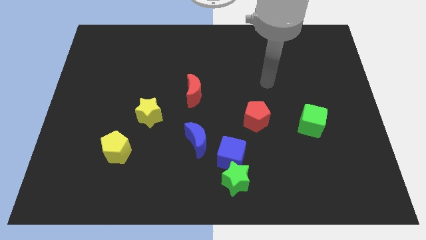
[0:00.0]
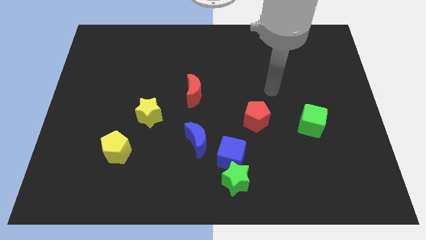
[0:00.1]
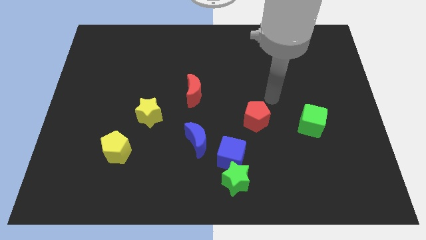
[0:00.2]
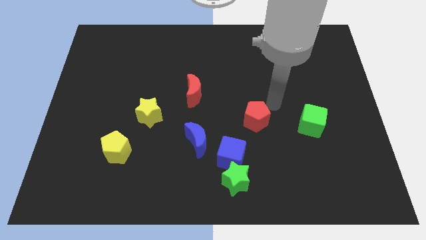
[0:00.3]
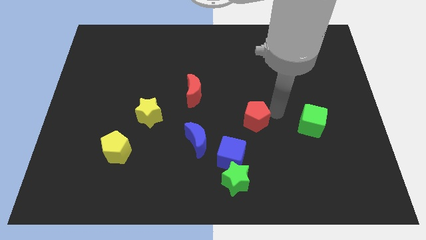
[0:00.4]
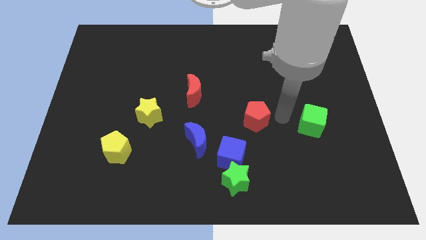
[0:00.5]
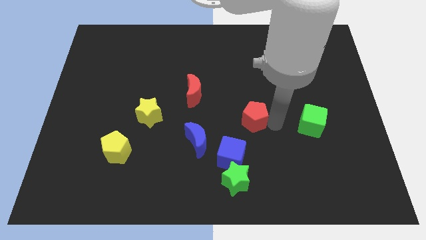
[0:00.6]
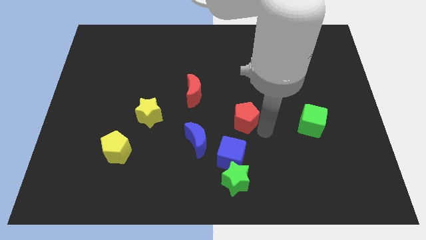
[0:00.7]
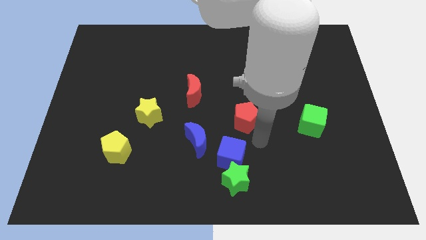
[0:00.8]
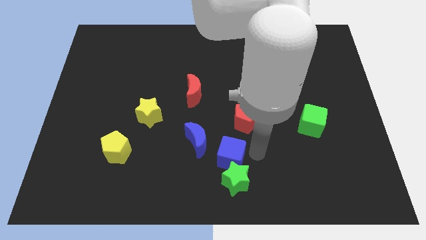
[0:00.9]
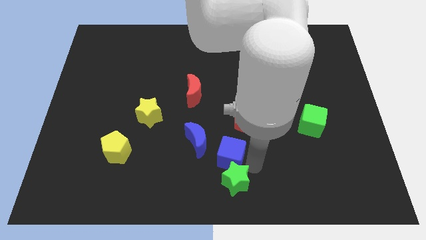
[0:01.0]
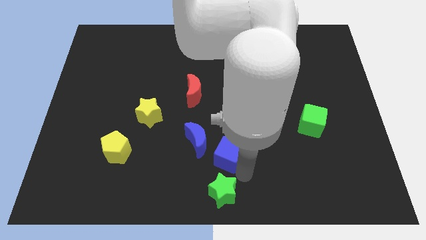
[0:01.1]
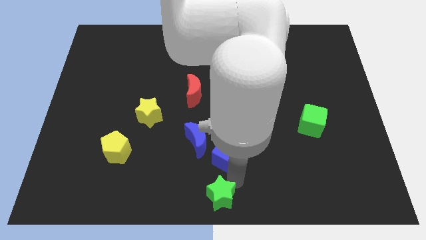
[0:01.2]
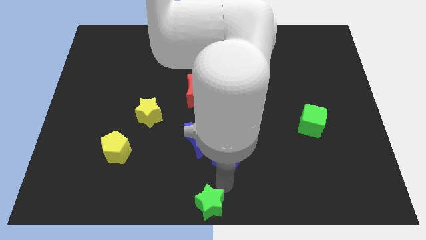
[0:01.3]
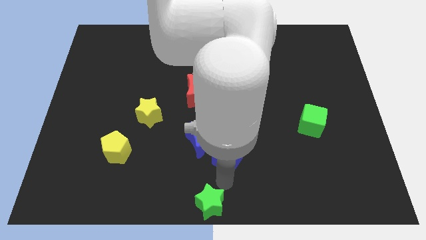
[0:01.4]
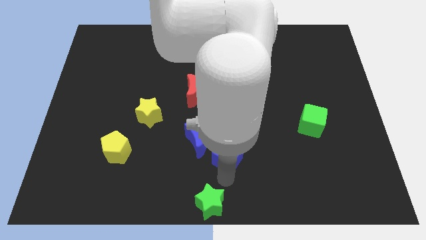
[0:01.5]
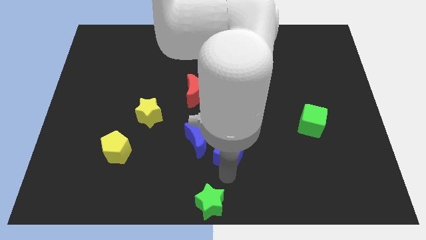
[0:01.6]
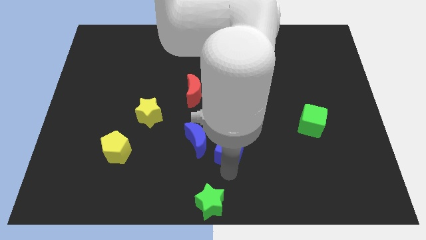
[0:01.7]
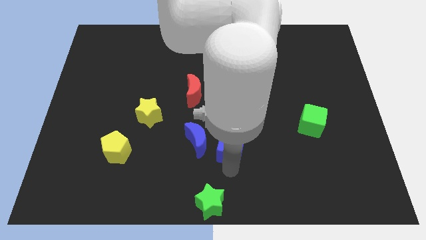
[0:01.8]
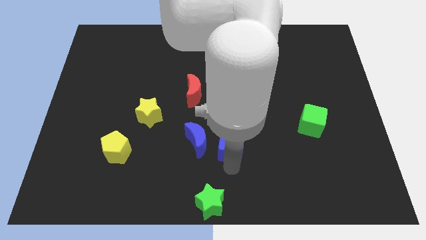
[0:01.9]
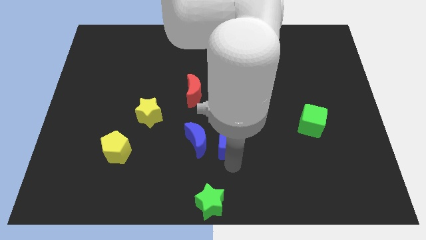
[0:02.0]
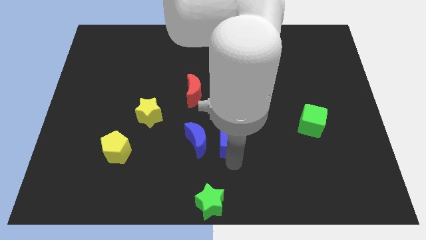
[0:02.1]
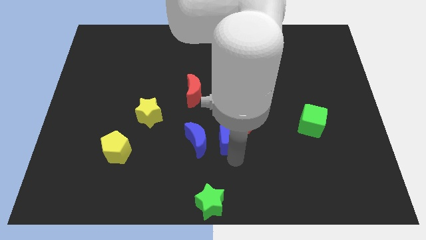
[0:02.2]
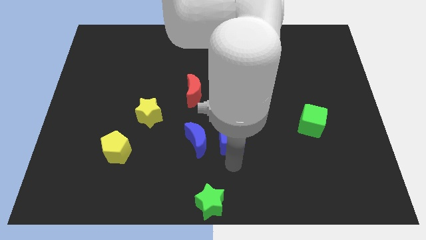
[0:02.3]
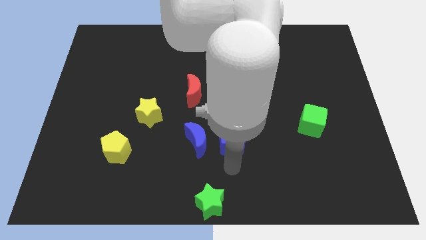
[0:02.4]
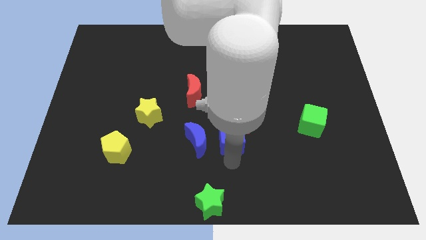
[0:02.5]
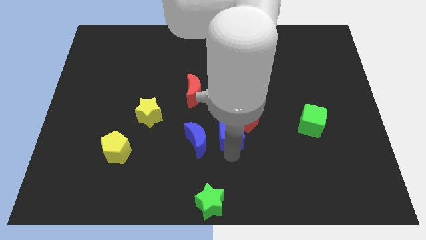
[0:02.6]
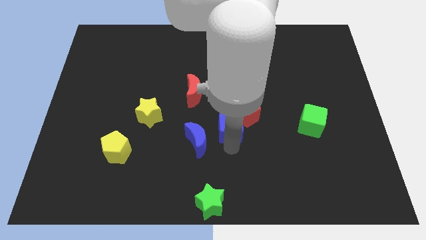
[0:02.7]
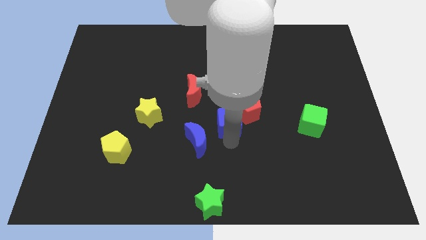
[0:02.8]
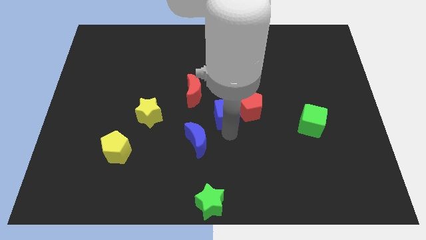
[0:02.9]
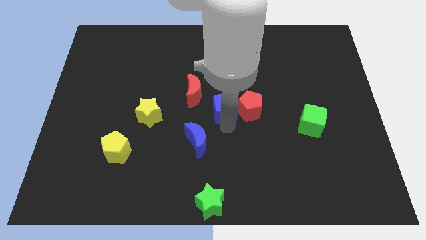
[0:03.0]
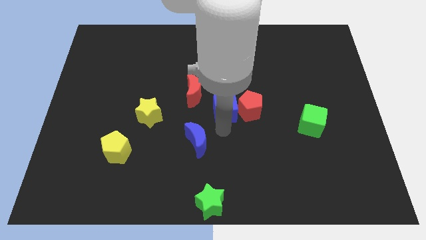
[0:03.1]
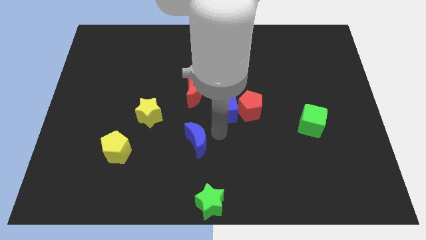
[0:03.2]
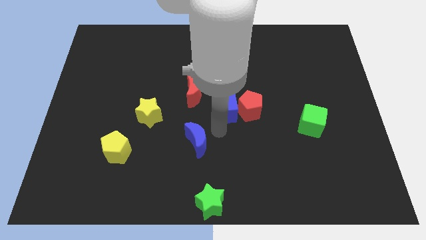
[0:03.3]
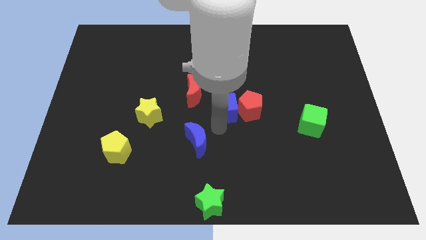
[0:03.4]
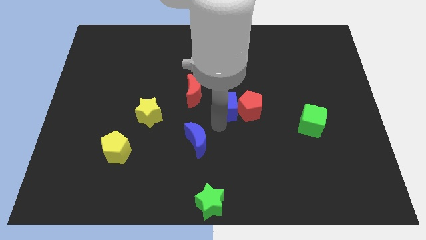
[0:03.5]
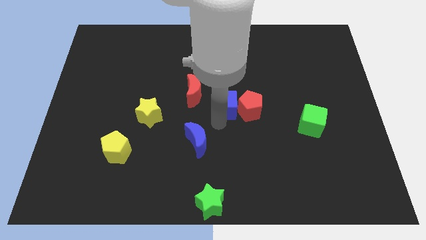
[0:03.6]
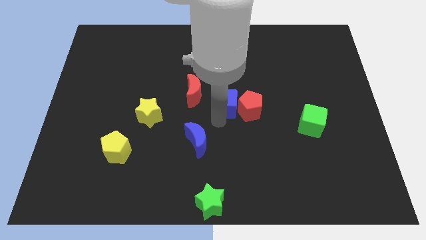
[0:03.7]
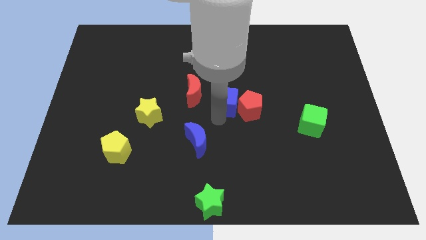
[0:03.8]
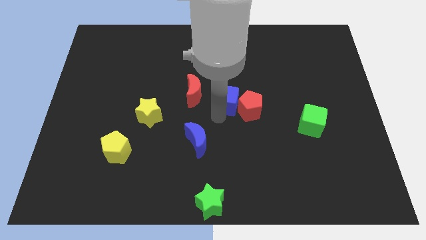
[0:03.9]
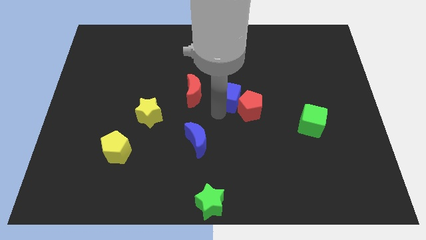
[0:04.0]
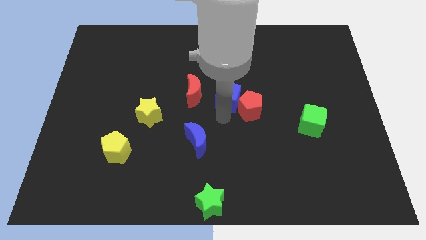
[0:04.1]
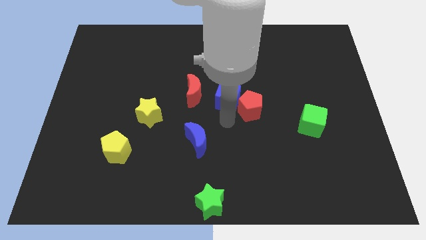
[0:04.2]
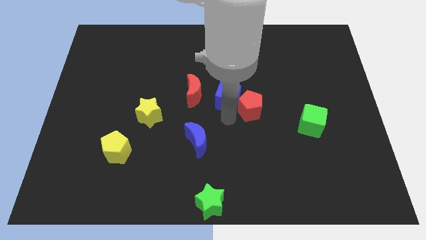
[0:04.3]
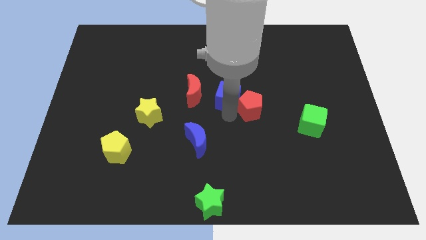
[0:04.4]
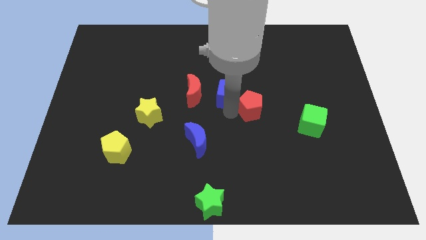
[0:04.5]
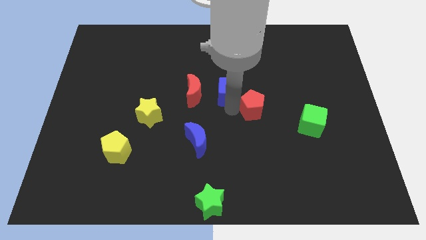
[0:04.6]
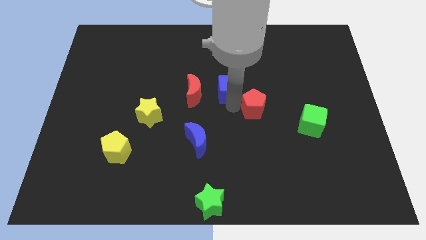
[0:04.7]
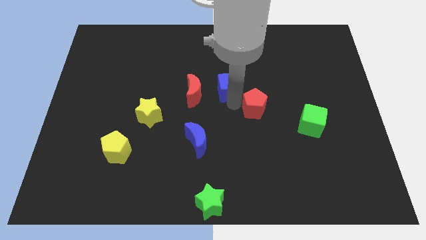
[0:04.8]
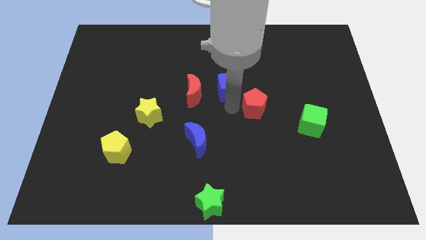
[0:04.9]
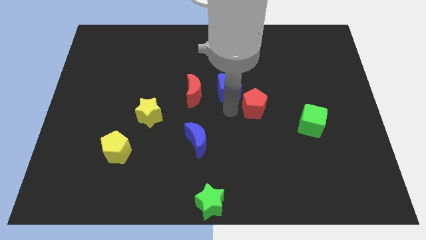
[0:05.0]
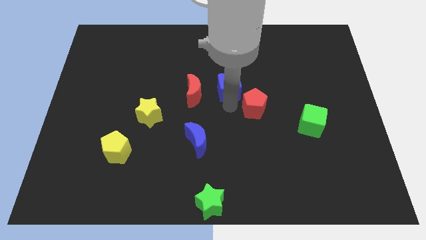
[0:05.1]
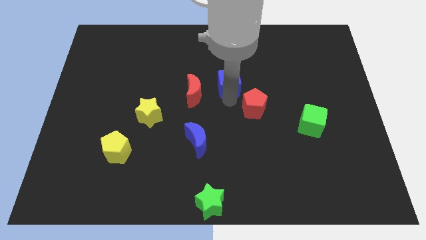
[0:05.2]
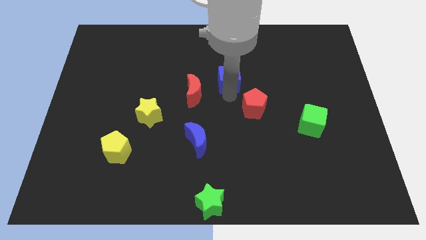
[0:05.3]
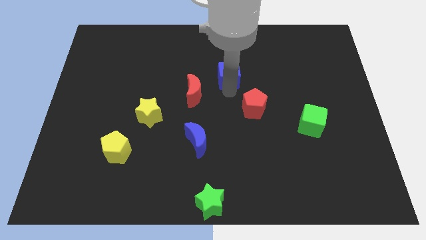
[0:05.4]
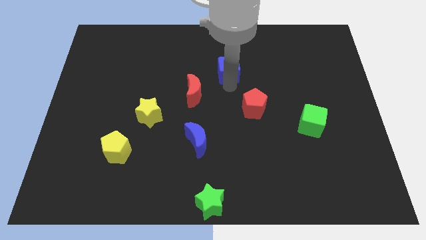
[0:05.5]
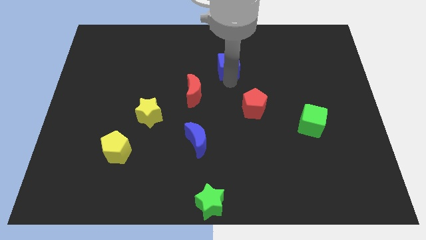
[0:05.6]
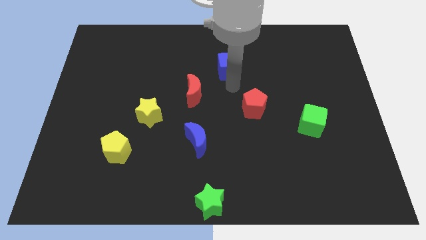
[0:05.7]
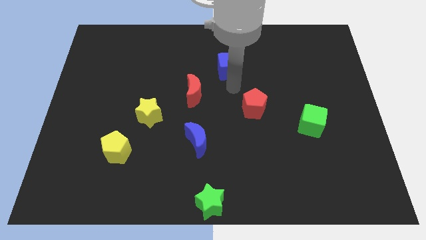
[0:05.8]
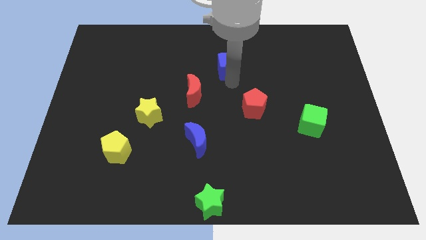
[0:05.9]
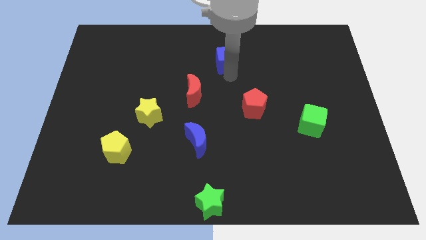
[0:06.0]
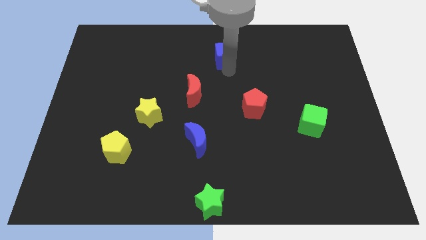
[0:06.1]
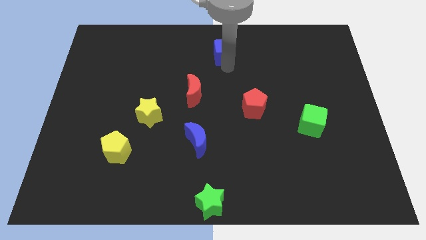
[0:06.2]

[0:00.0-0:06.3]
put the blue cube to the top
